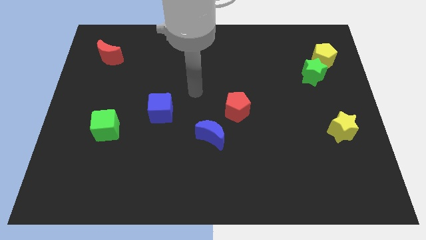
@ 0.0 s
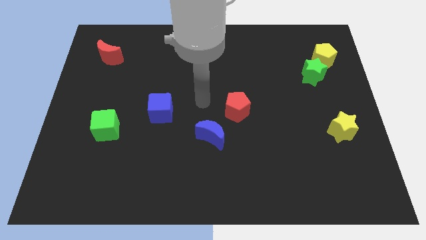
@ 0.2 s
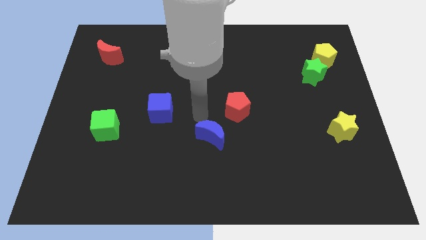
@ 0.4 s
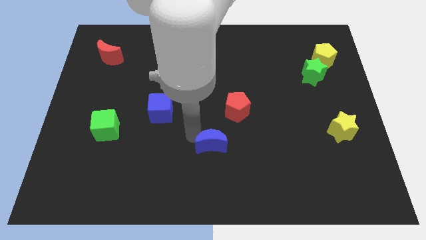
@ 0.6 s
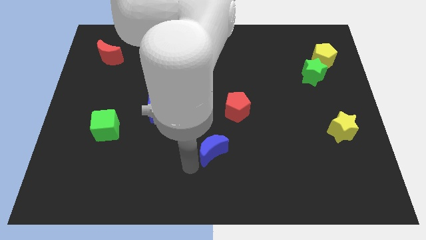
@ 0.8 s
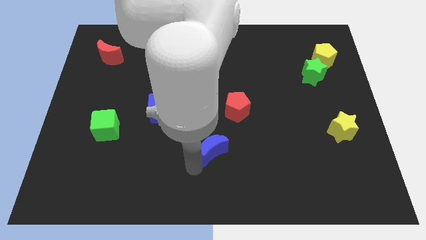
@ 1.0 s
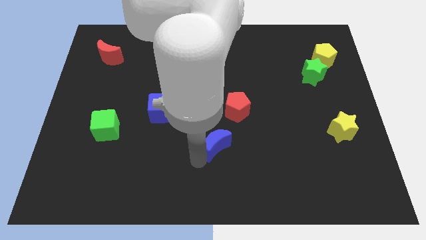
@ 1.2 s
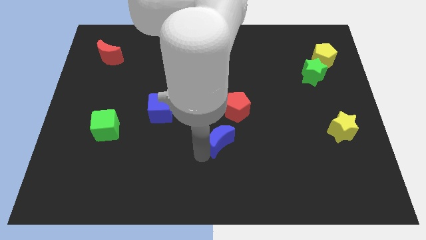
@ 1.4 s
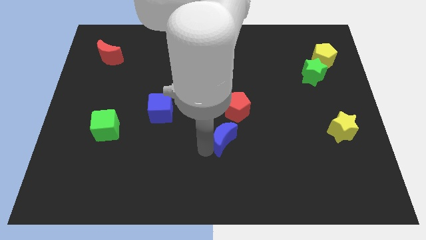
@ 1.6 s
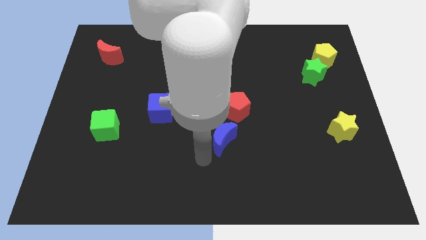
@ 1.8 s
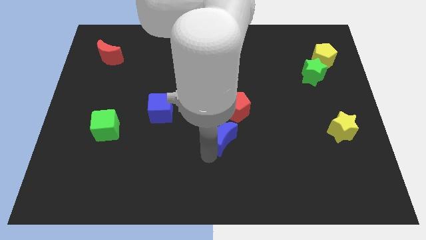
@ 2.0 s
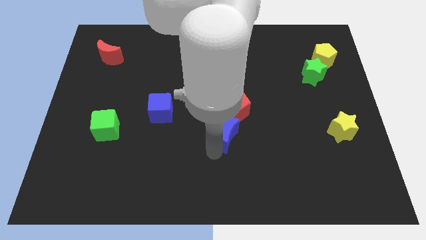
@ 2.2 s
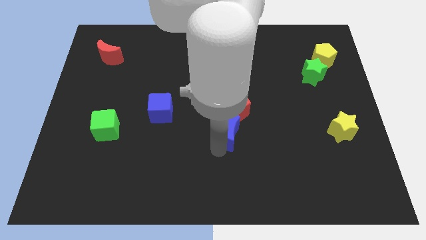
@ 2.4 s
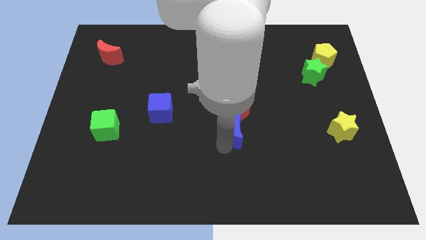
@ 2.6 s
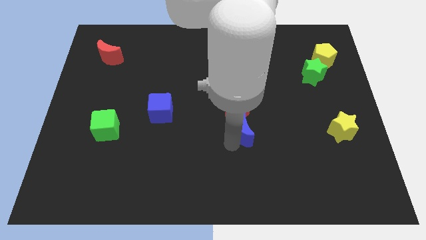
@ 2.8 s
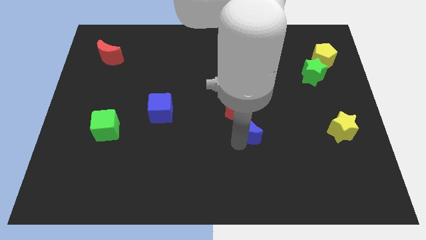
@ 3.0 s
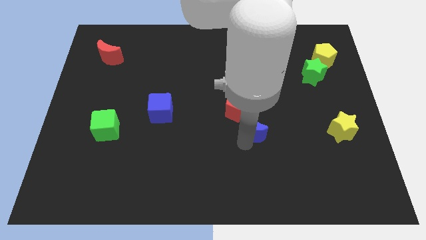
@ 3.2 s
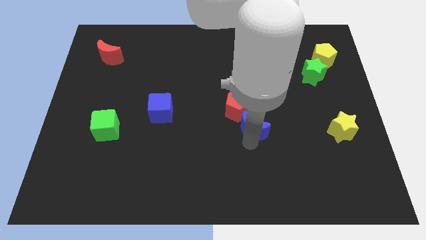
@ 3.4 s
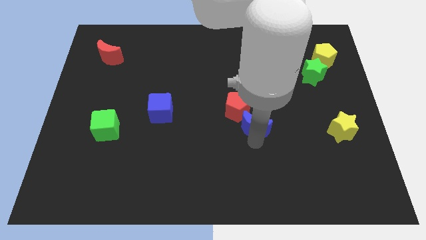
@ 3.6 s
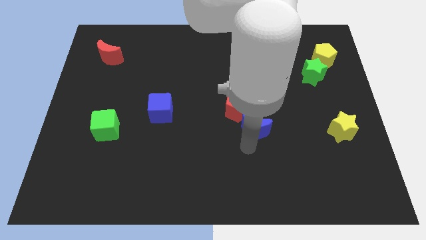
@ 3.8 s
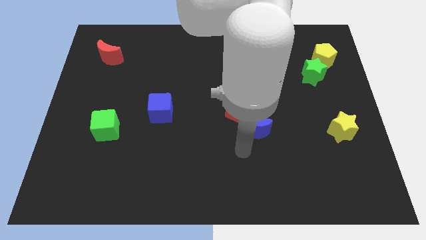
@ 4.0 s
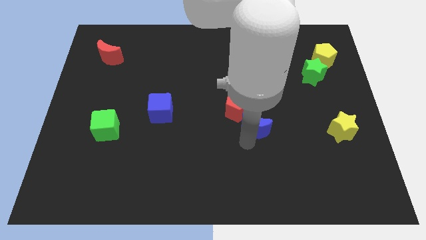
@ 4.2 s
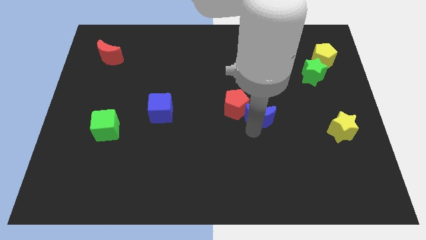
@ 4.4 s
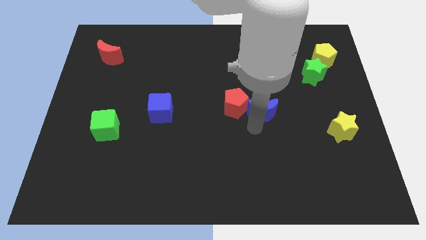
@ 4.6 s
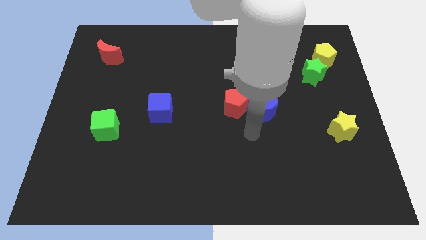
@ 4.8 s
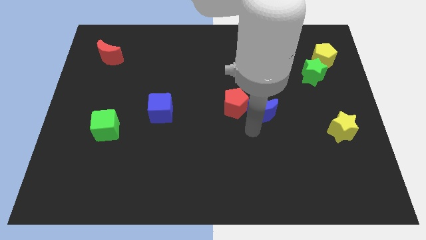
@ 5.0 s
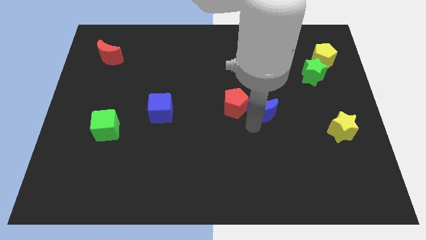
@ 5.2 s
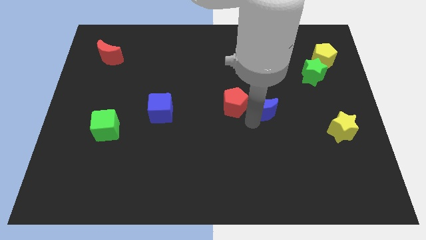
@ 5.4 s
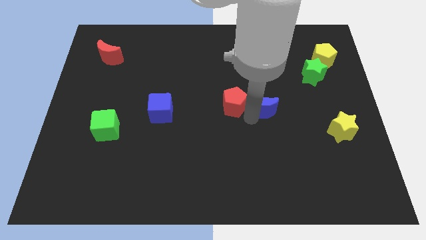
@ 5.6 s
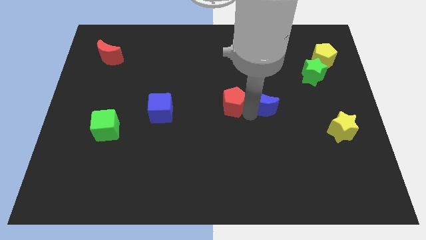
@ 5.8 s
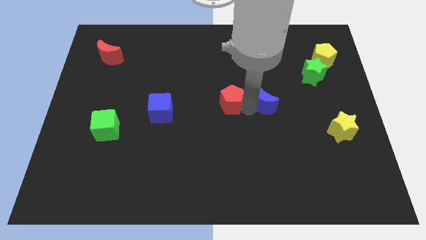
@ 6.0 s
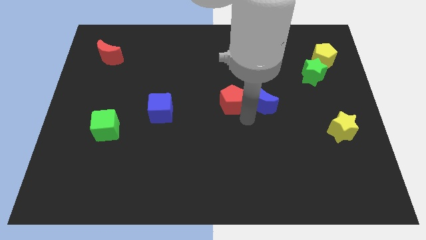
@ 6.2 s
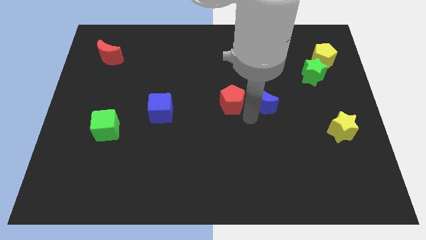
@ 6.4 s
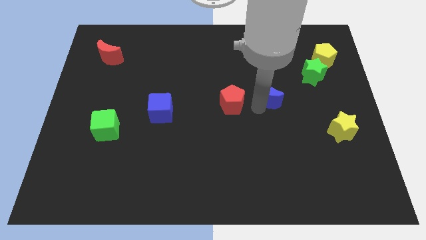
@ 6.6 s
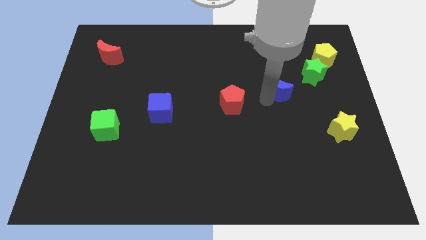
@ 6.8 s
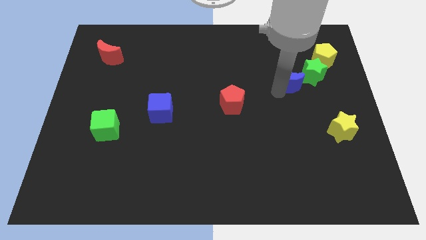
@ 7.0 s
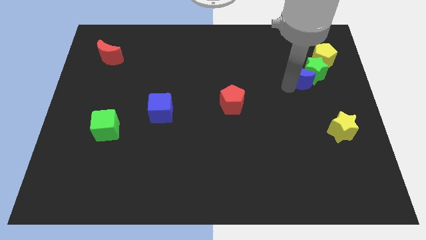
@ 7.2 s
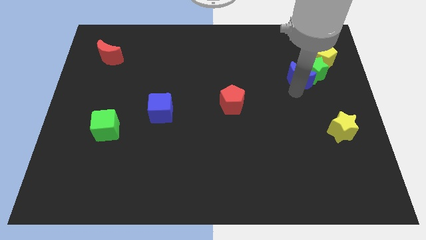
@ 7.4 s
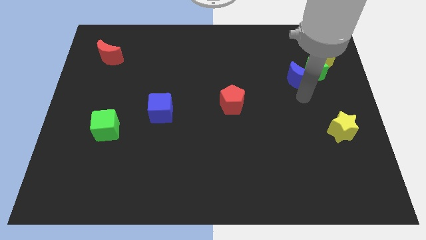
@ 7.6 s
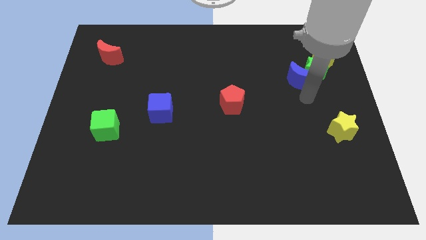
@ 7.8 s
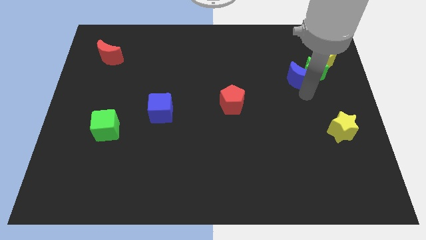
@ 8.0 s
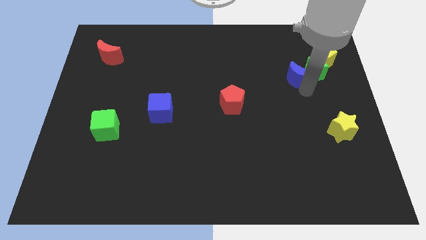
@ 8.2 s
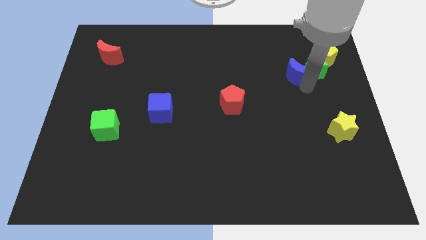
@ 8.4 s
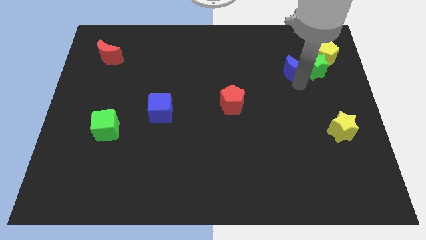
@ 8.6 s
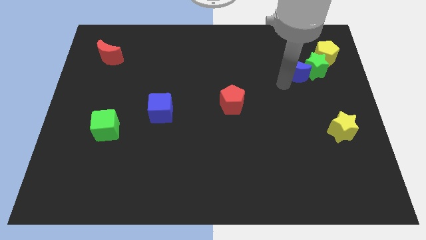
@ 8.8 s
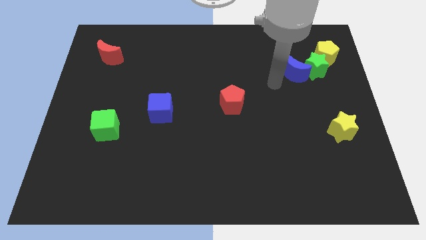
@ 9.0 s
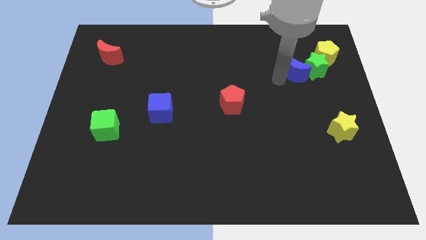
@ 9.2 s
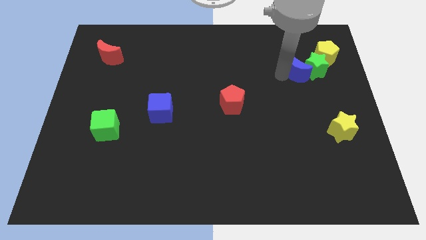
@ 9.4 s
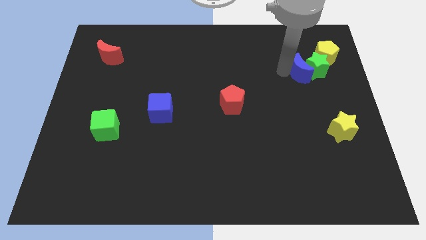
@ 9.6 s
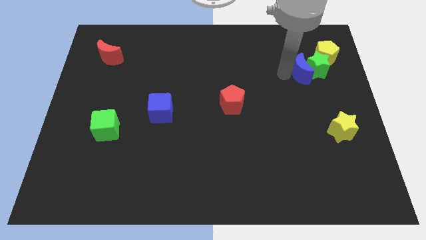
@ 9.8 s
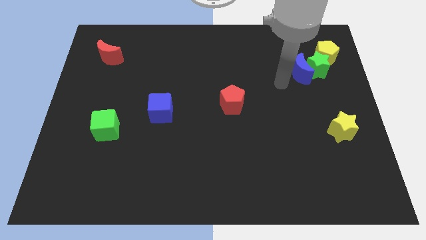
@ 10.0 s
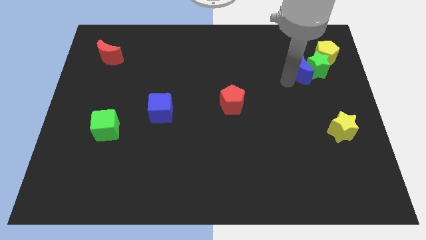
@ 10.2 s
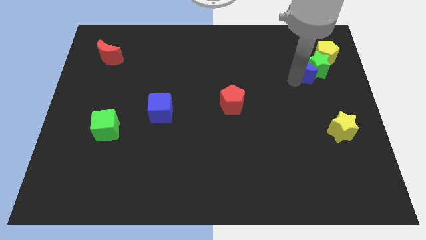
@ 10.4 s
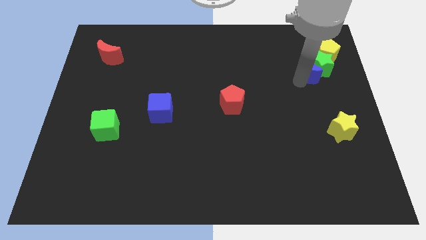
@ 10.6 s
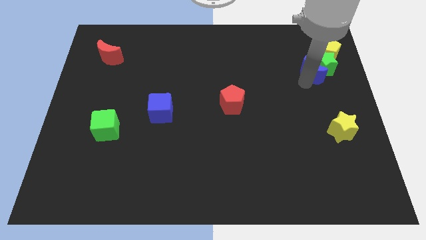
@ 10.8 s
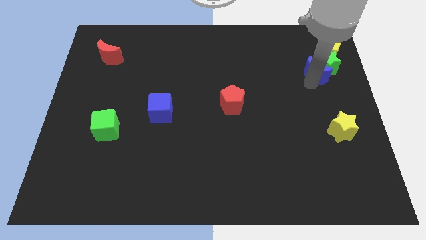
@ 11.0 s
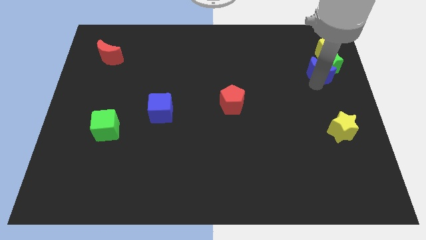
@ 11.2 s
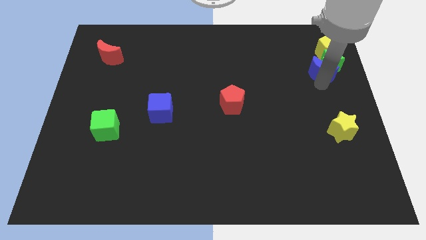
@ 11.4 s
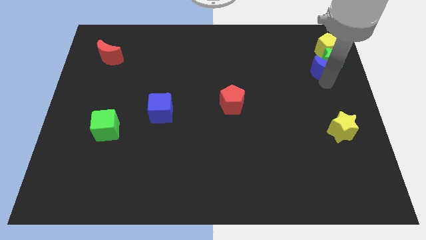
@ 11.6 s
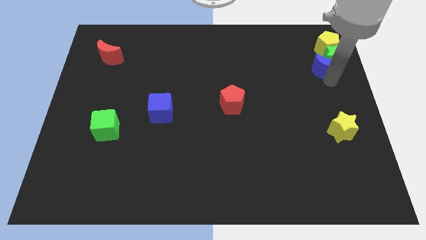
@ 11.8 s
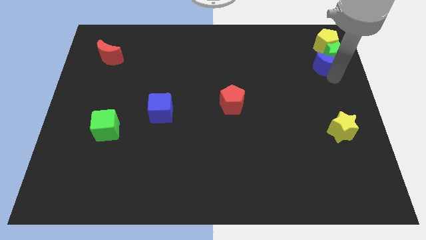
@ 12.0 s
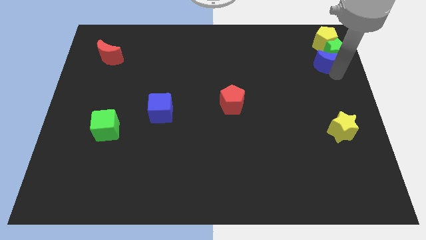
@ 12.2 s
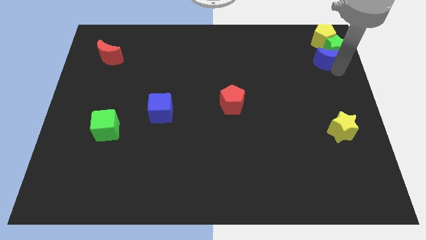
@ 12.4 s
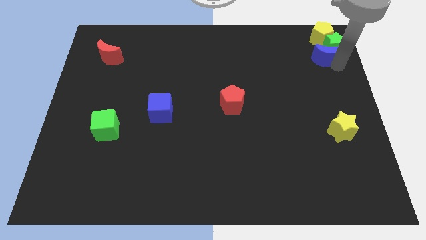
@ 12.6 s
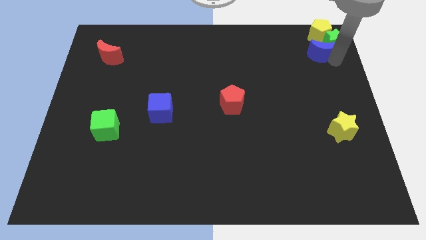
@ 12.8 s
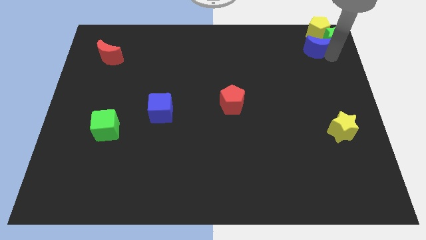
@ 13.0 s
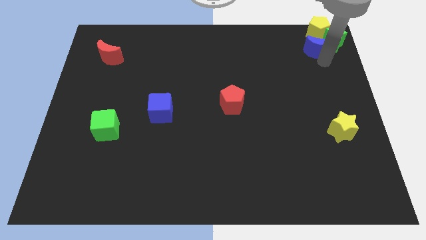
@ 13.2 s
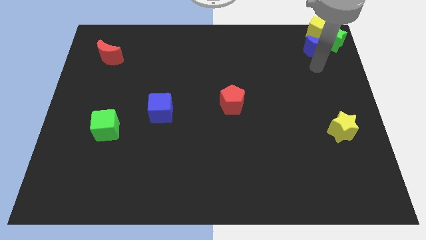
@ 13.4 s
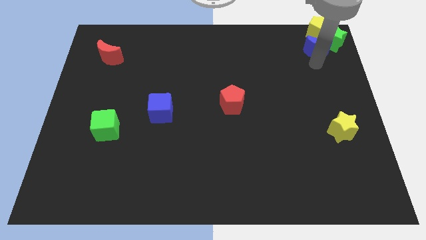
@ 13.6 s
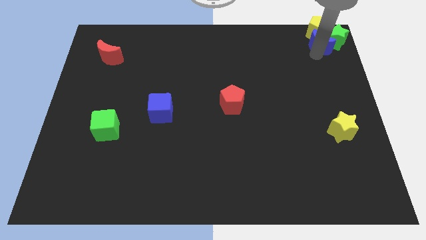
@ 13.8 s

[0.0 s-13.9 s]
put the blue moon to the yellow pentagon
